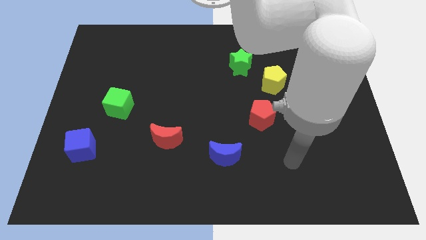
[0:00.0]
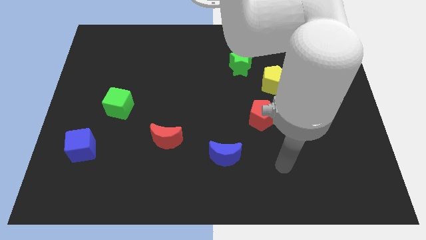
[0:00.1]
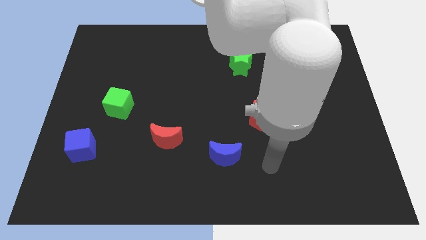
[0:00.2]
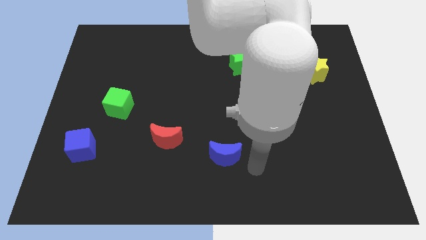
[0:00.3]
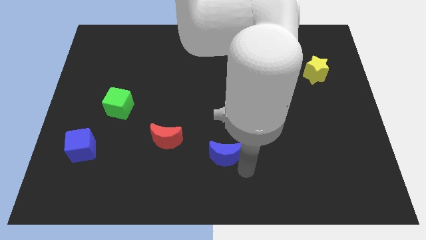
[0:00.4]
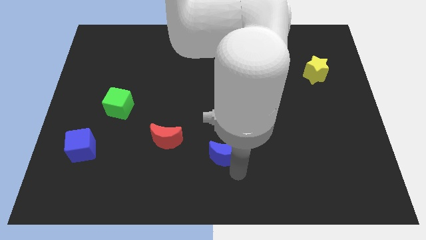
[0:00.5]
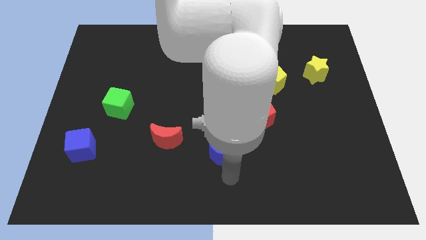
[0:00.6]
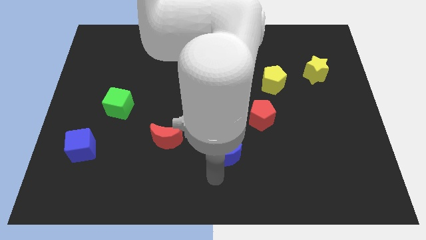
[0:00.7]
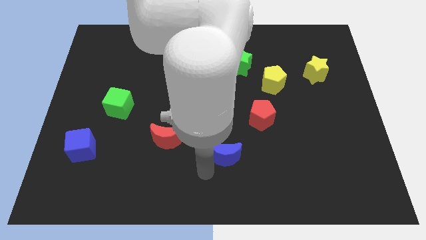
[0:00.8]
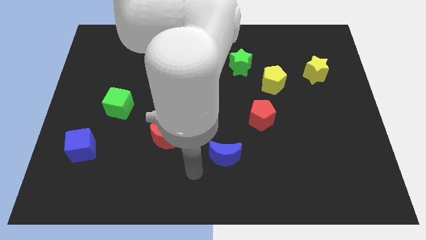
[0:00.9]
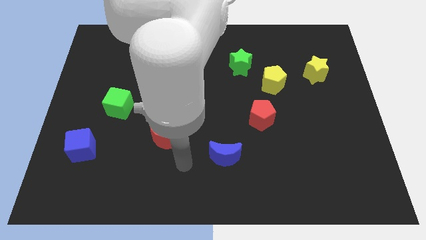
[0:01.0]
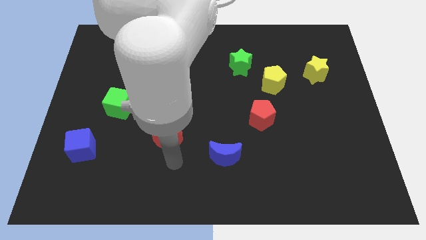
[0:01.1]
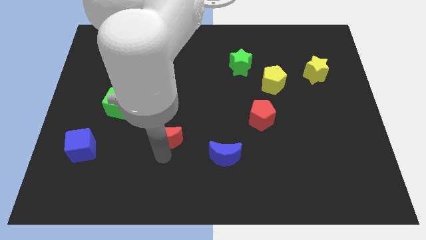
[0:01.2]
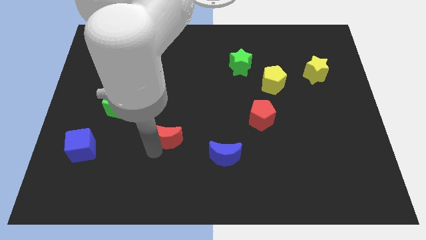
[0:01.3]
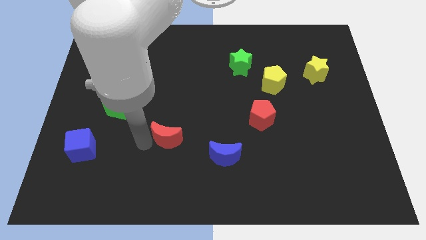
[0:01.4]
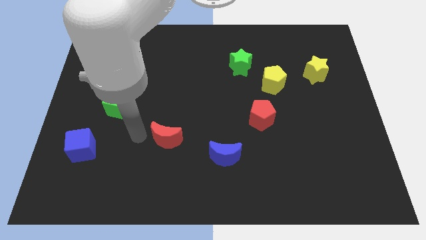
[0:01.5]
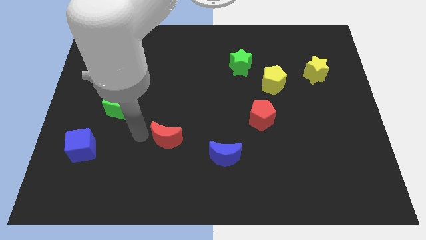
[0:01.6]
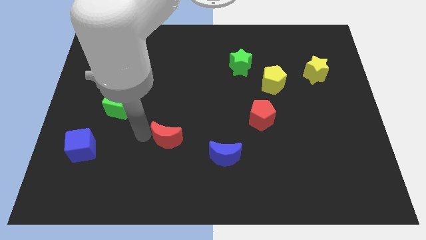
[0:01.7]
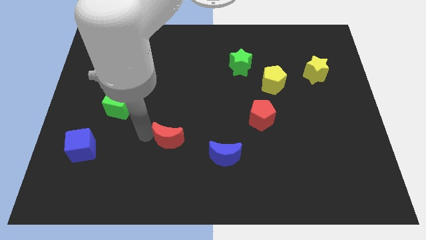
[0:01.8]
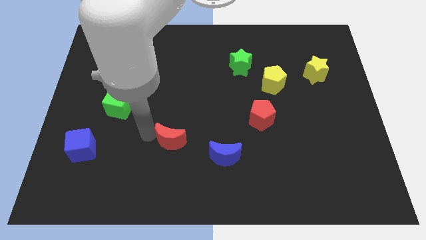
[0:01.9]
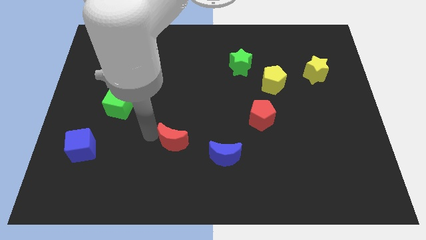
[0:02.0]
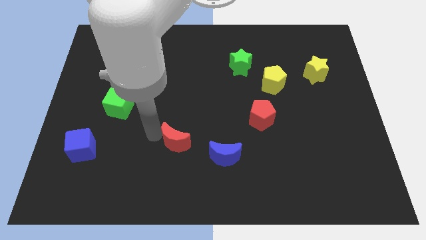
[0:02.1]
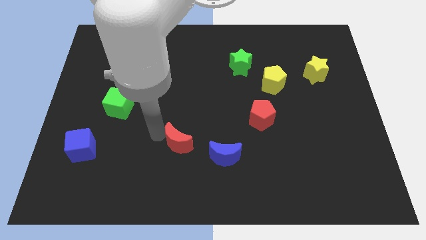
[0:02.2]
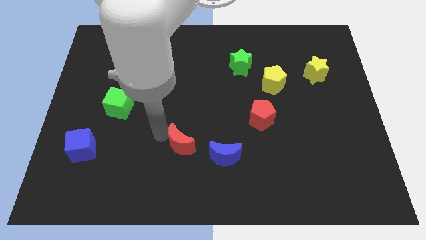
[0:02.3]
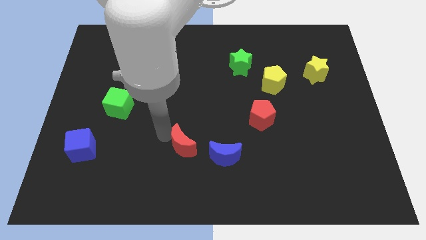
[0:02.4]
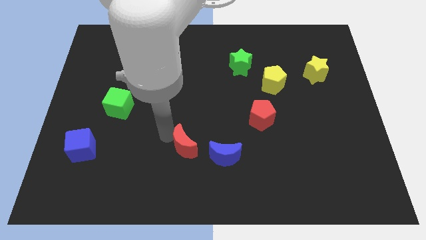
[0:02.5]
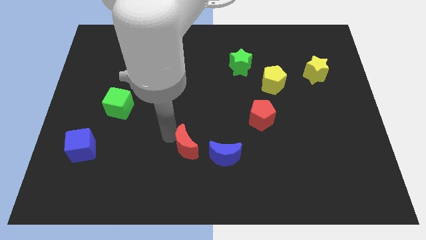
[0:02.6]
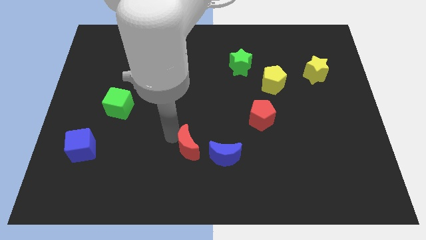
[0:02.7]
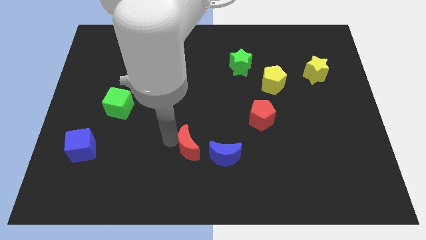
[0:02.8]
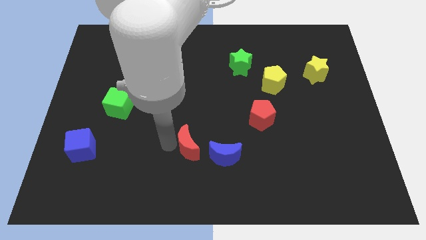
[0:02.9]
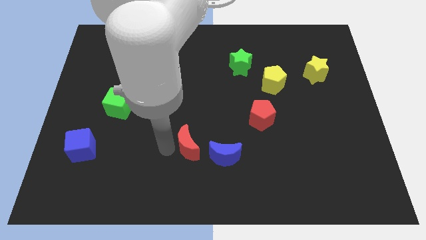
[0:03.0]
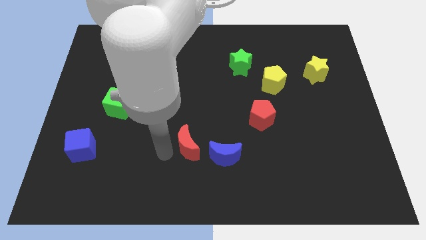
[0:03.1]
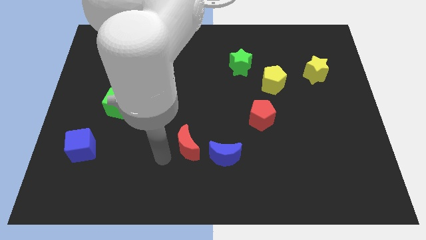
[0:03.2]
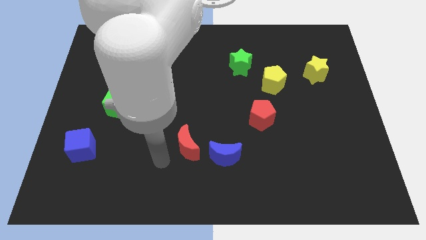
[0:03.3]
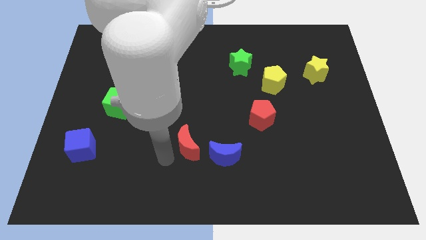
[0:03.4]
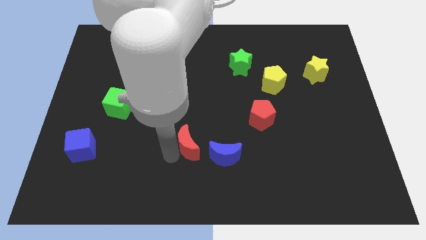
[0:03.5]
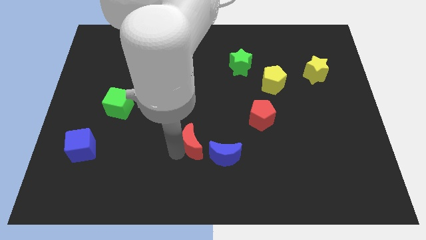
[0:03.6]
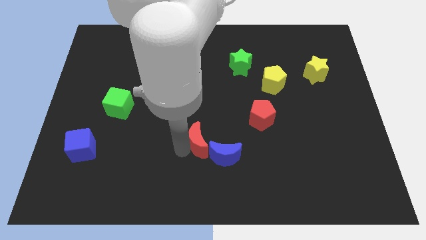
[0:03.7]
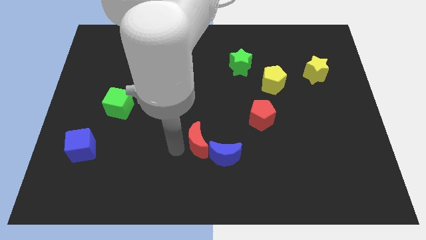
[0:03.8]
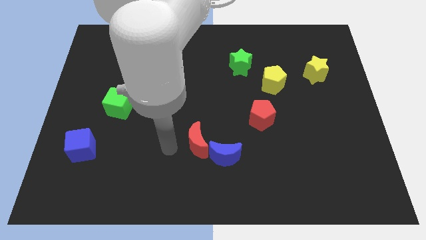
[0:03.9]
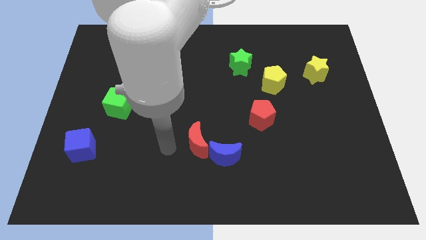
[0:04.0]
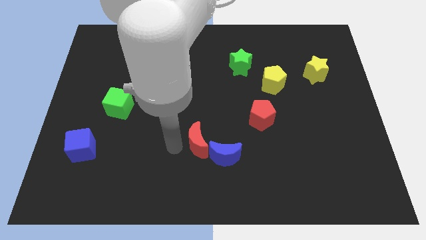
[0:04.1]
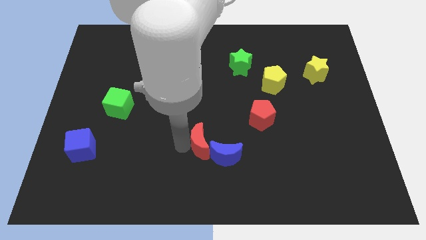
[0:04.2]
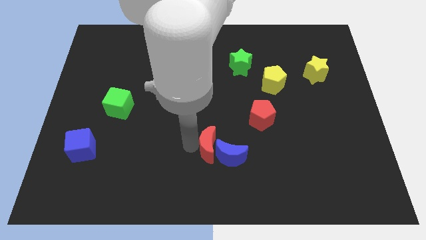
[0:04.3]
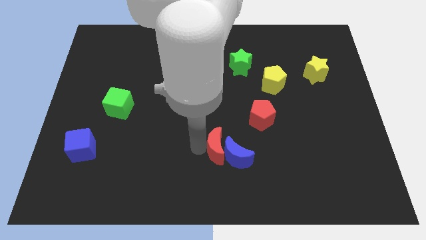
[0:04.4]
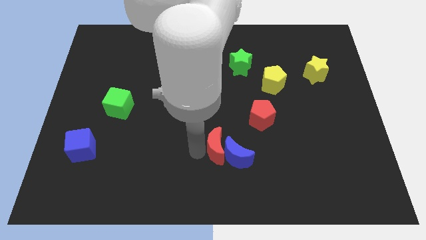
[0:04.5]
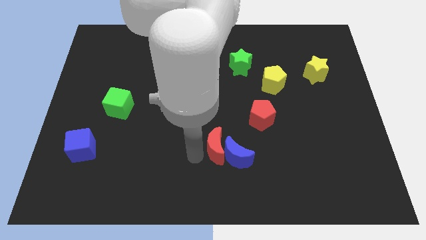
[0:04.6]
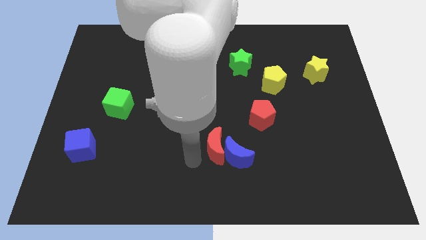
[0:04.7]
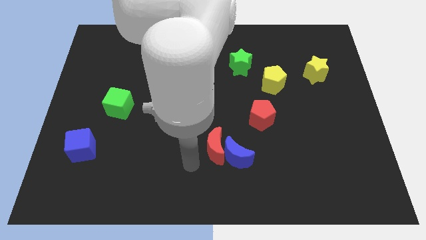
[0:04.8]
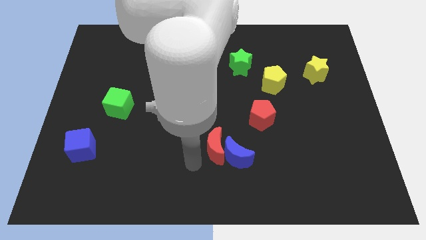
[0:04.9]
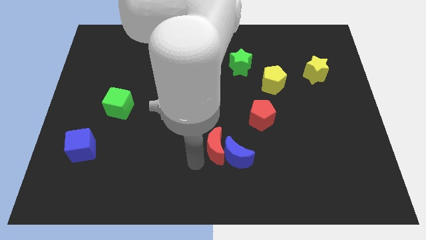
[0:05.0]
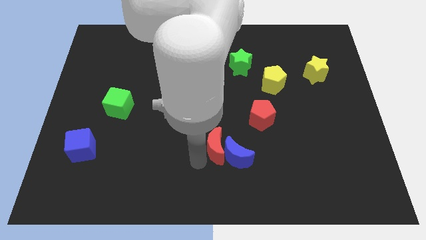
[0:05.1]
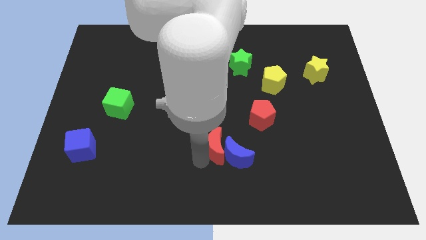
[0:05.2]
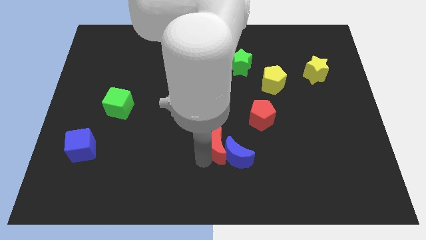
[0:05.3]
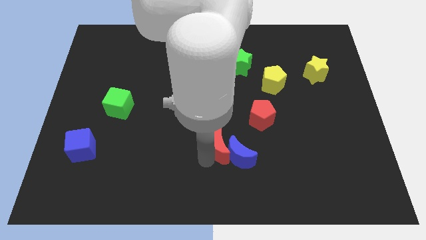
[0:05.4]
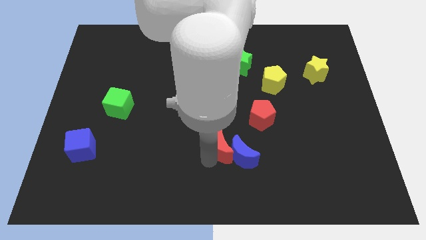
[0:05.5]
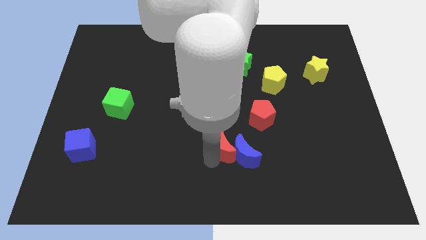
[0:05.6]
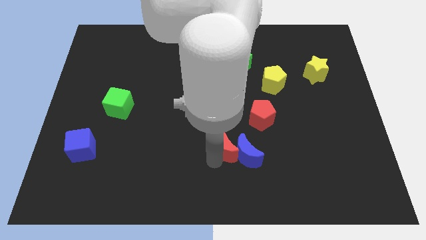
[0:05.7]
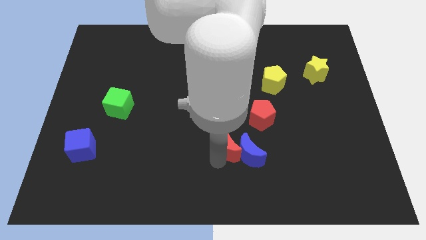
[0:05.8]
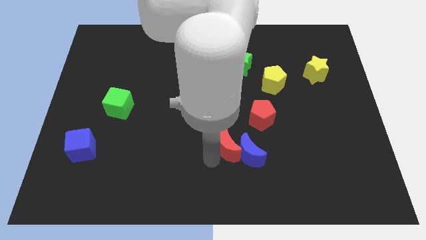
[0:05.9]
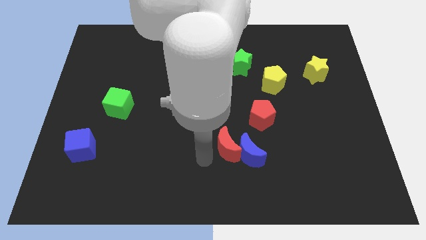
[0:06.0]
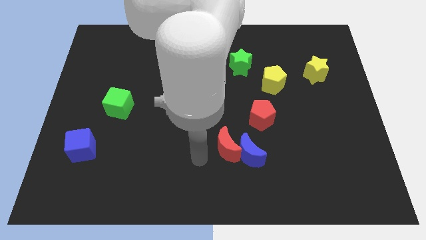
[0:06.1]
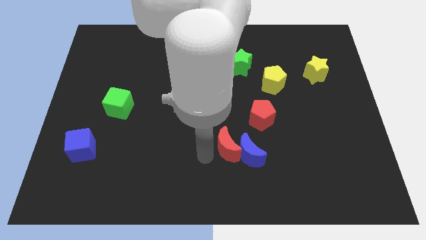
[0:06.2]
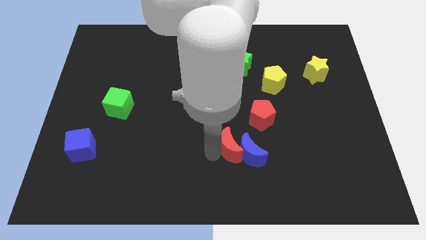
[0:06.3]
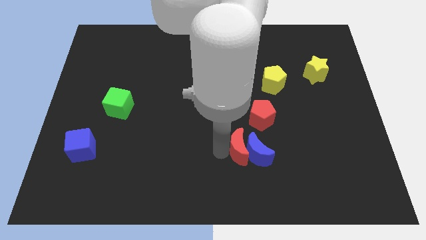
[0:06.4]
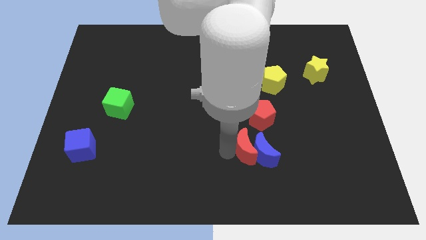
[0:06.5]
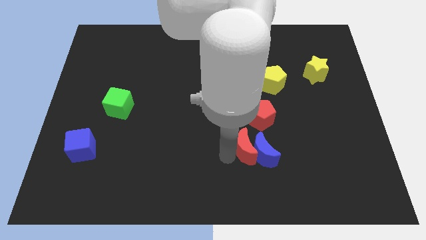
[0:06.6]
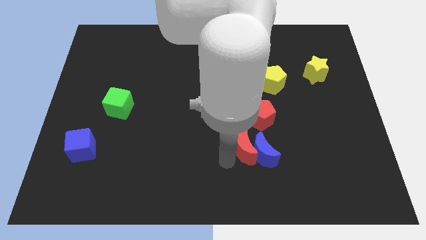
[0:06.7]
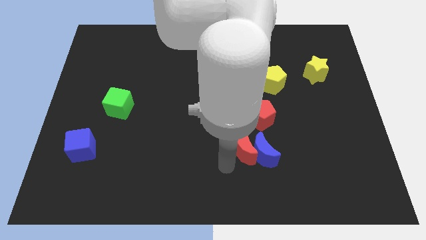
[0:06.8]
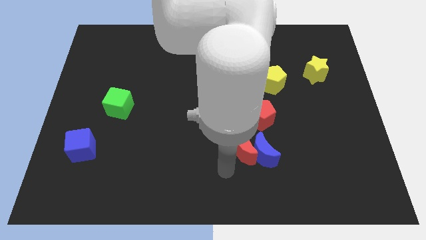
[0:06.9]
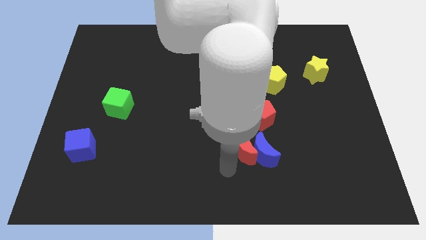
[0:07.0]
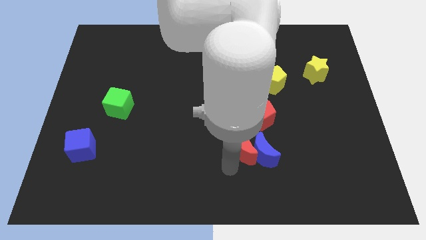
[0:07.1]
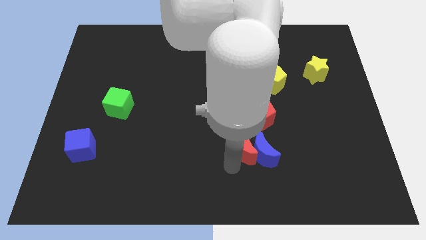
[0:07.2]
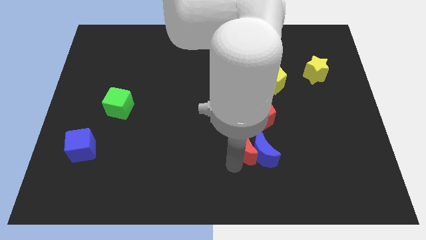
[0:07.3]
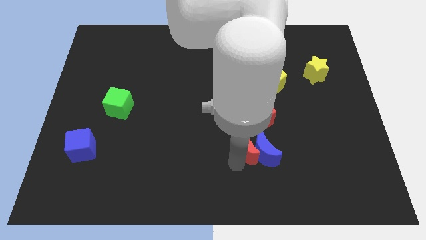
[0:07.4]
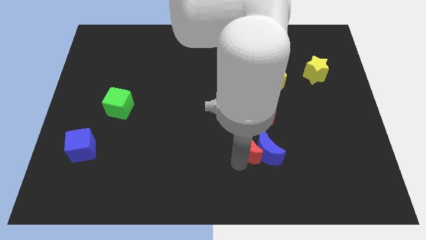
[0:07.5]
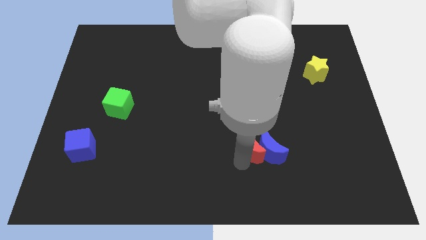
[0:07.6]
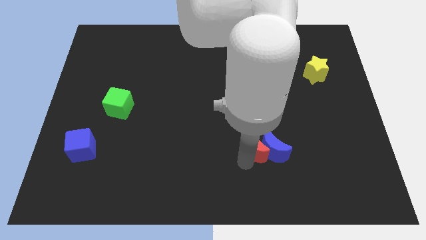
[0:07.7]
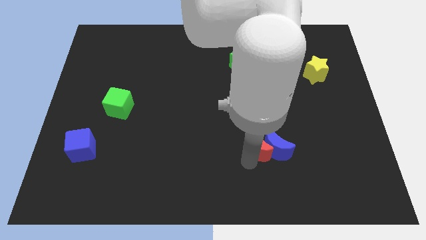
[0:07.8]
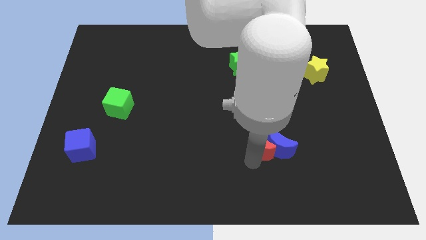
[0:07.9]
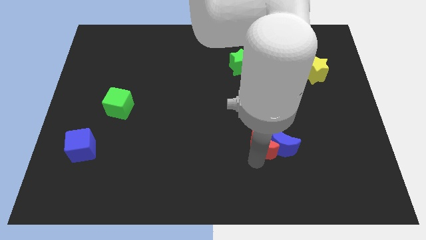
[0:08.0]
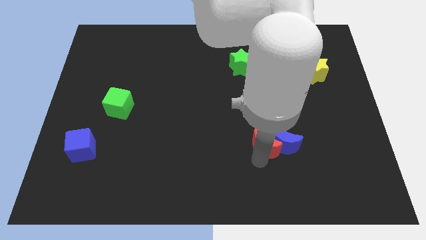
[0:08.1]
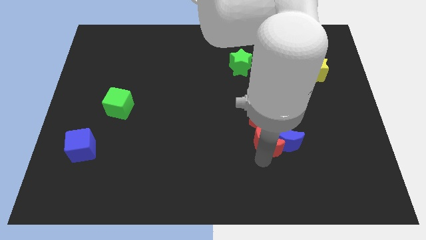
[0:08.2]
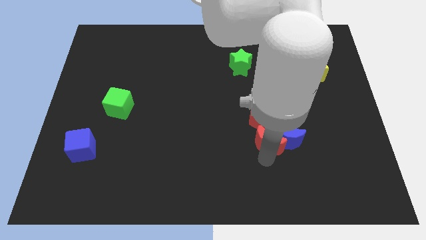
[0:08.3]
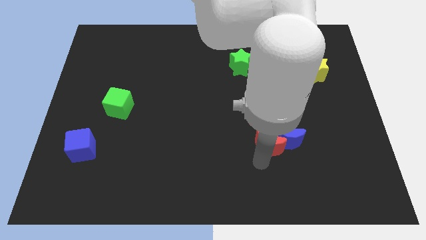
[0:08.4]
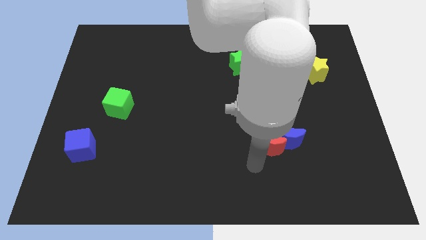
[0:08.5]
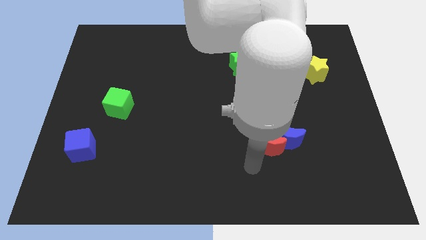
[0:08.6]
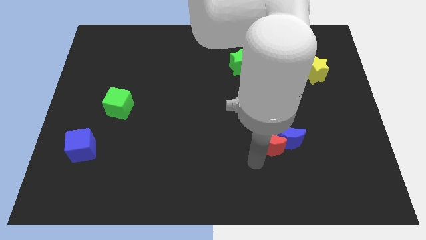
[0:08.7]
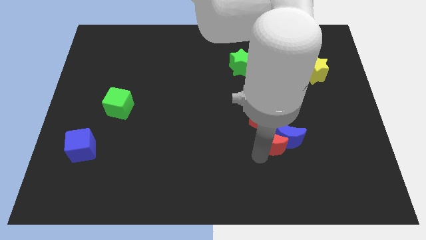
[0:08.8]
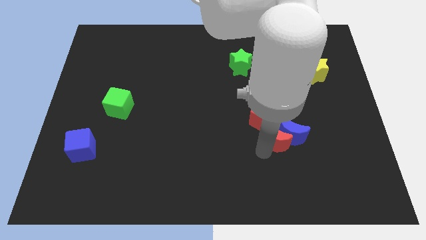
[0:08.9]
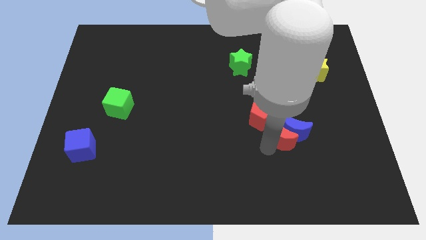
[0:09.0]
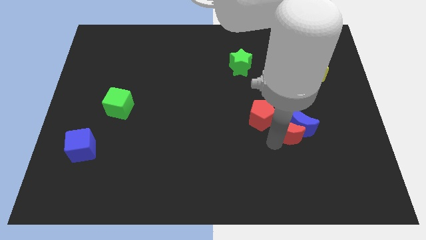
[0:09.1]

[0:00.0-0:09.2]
move the red moon to the right side of the red pentagon
